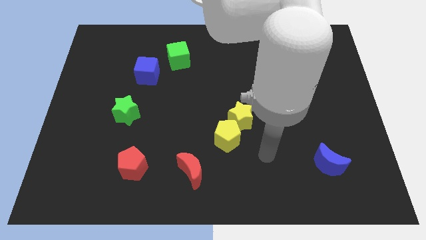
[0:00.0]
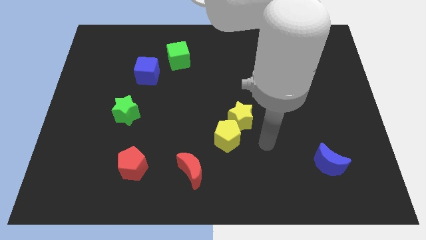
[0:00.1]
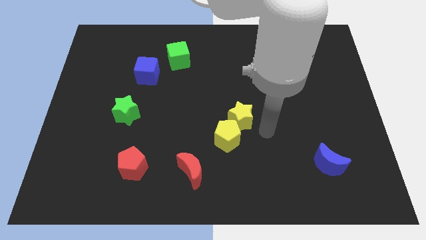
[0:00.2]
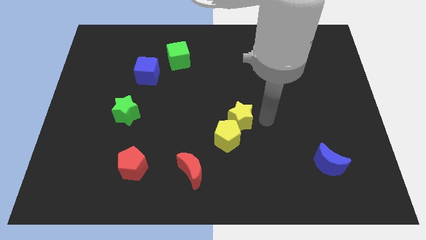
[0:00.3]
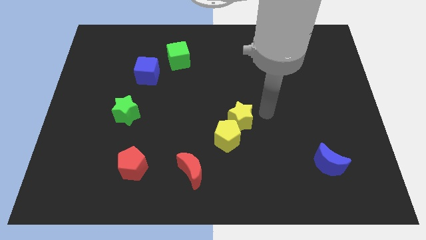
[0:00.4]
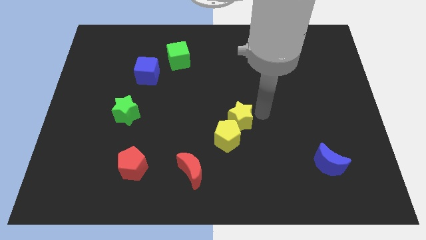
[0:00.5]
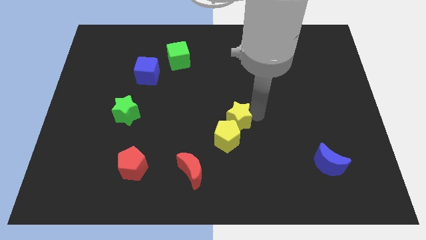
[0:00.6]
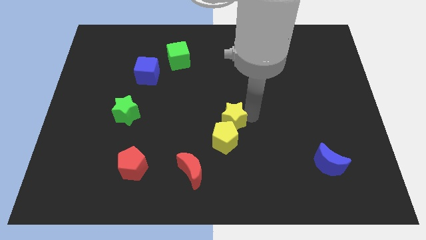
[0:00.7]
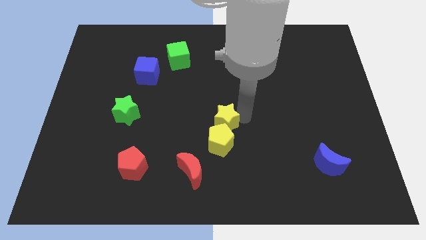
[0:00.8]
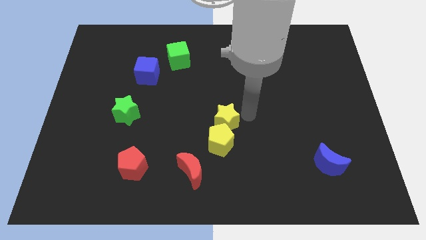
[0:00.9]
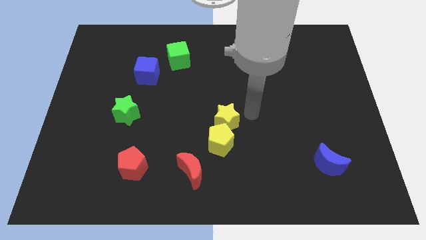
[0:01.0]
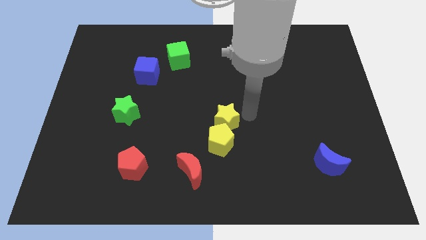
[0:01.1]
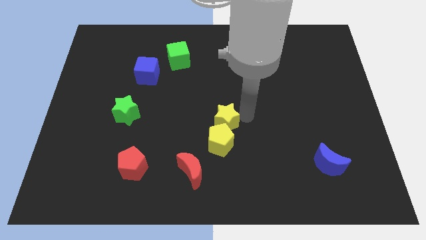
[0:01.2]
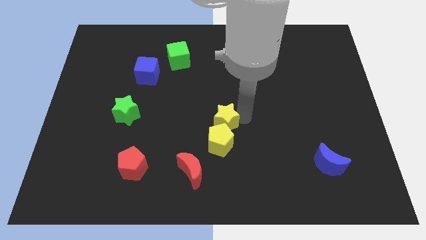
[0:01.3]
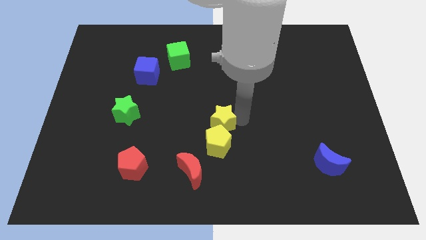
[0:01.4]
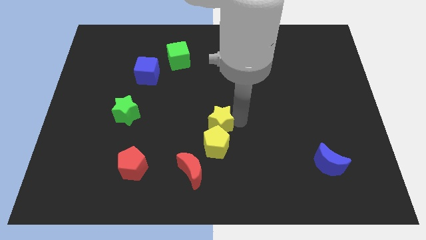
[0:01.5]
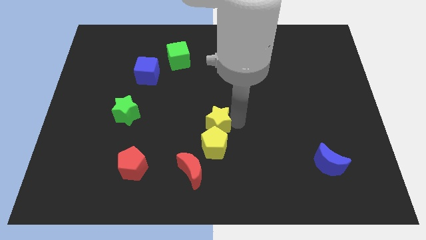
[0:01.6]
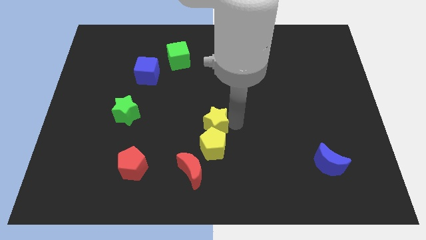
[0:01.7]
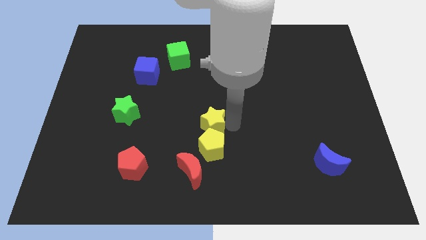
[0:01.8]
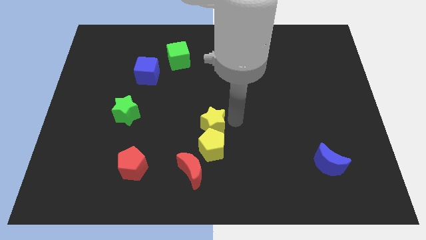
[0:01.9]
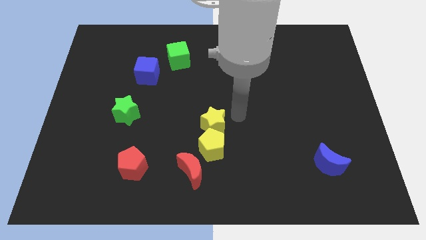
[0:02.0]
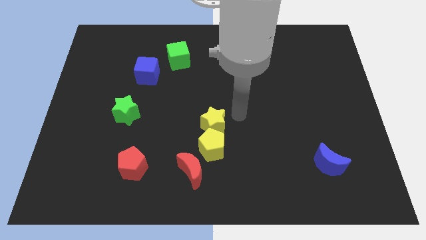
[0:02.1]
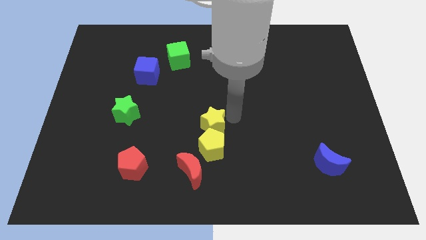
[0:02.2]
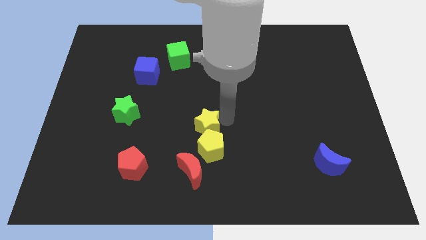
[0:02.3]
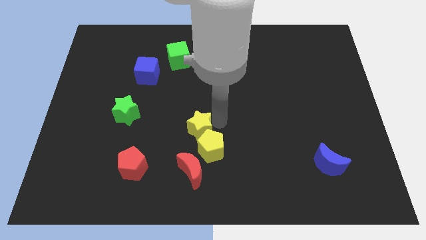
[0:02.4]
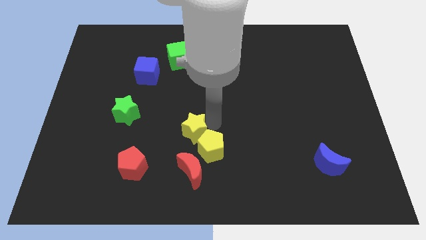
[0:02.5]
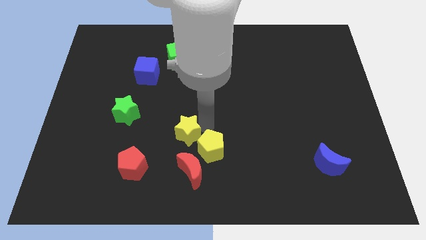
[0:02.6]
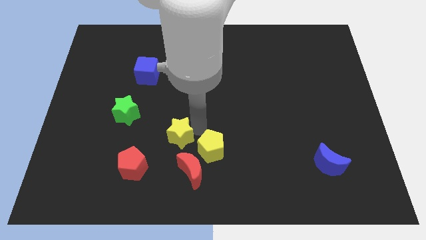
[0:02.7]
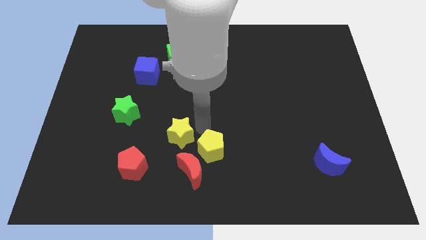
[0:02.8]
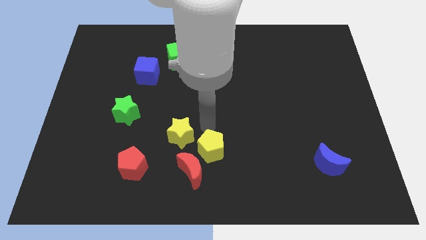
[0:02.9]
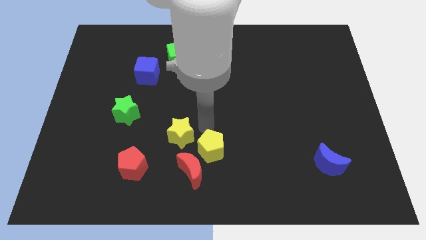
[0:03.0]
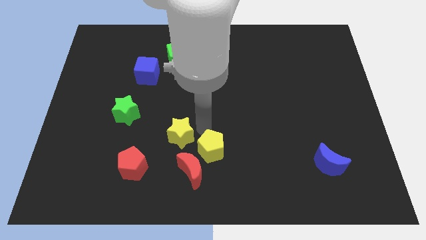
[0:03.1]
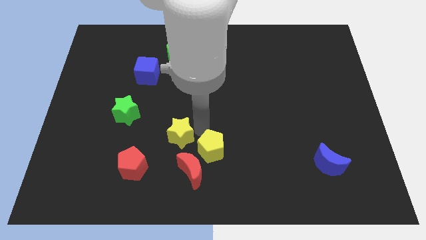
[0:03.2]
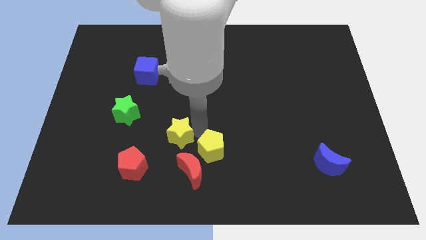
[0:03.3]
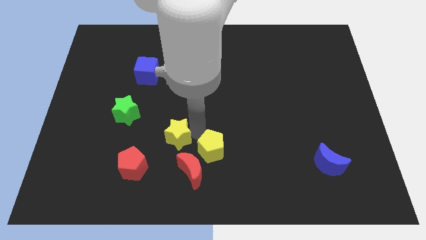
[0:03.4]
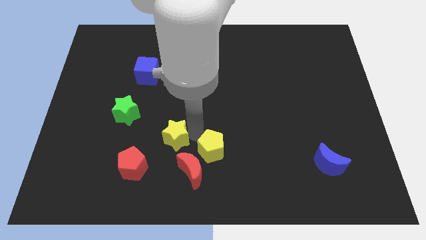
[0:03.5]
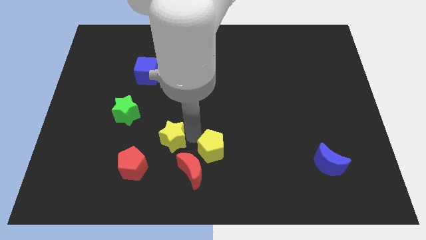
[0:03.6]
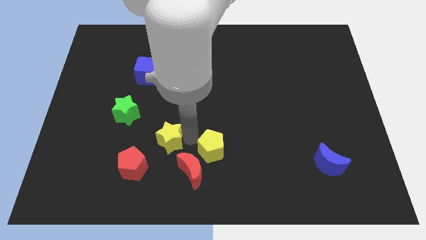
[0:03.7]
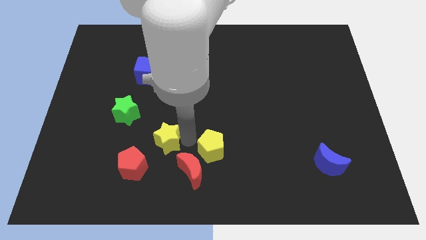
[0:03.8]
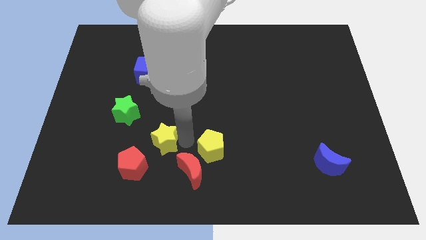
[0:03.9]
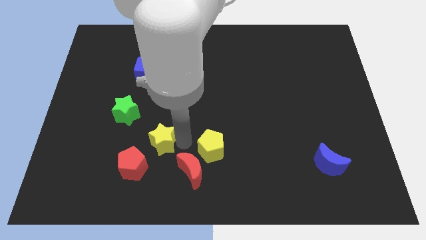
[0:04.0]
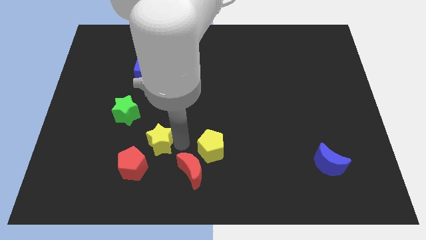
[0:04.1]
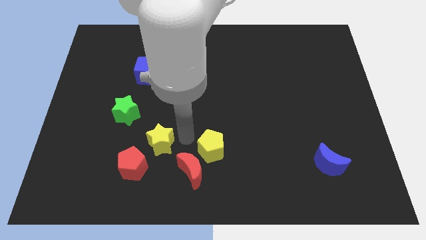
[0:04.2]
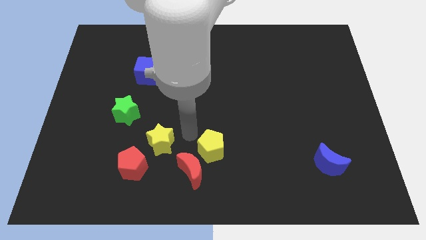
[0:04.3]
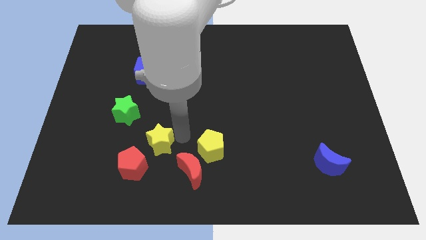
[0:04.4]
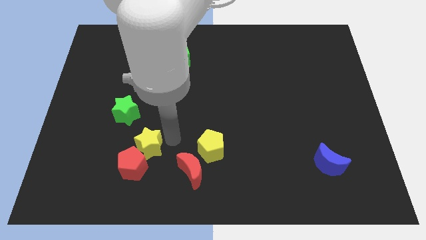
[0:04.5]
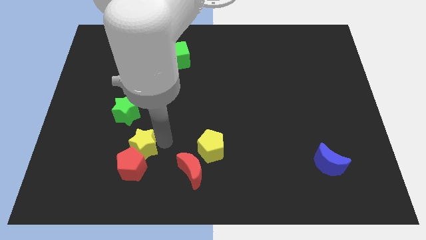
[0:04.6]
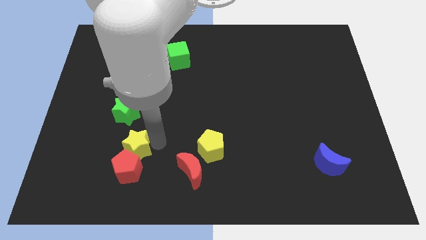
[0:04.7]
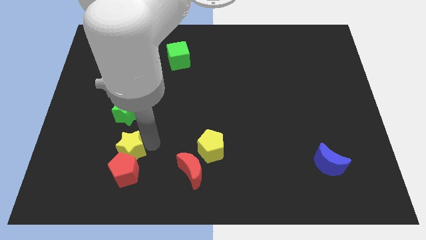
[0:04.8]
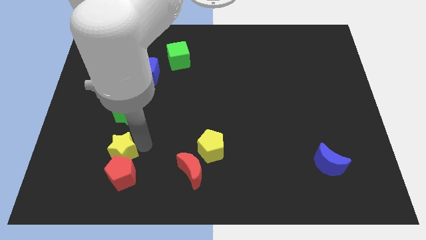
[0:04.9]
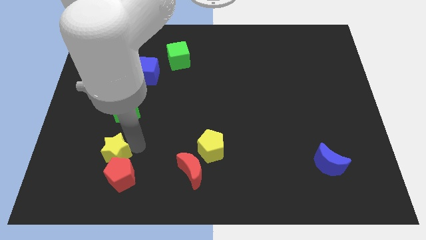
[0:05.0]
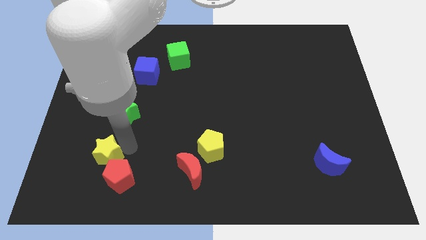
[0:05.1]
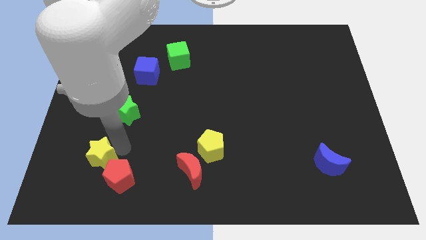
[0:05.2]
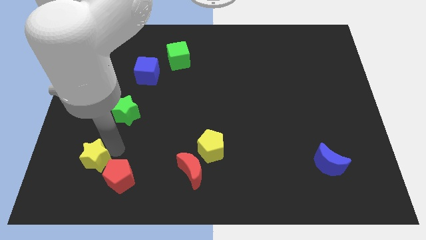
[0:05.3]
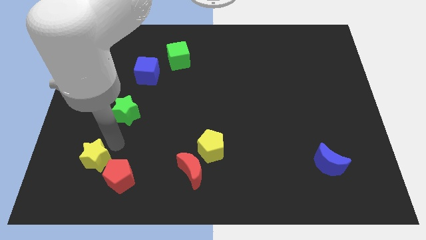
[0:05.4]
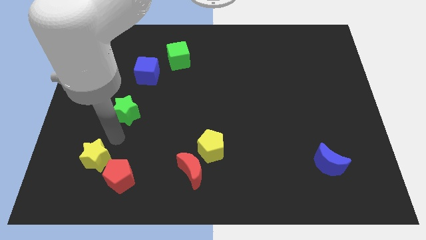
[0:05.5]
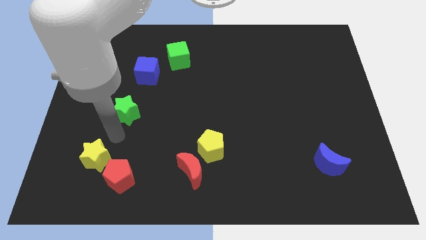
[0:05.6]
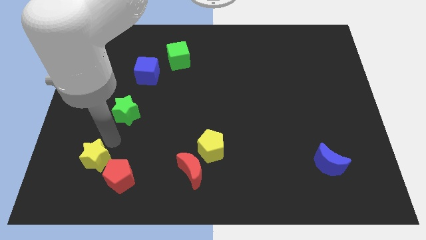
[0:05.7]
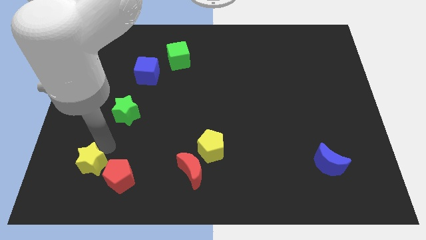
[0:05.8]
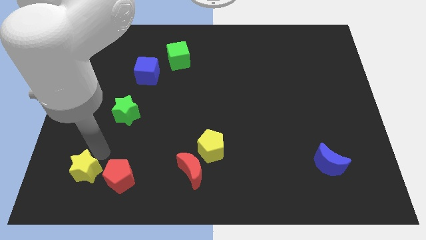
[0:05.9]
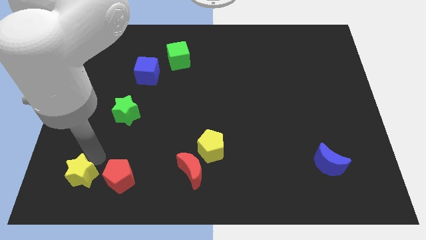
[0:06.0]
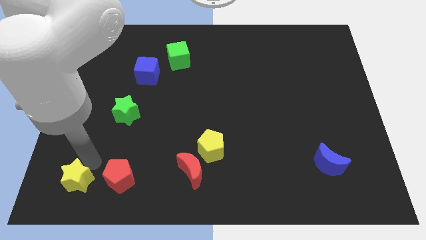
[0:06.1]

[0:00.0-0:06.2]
put the yellow star to the bottom left corner
